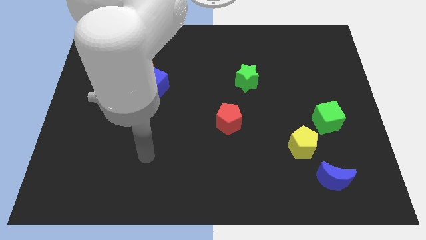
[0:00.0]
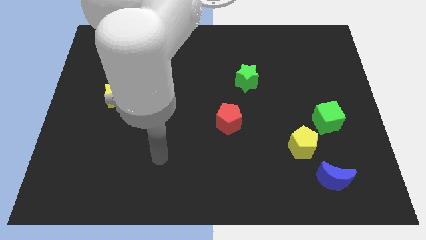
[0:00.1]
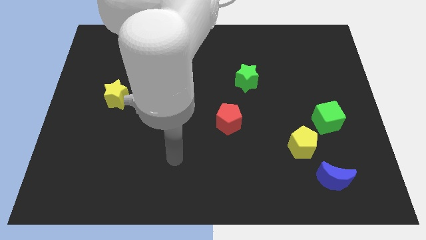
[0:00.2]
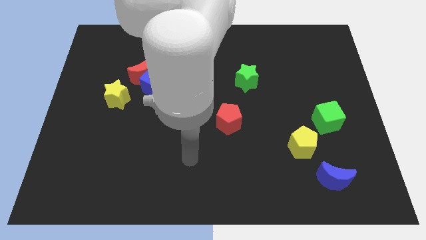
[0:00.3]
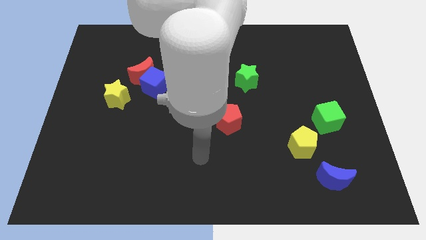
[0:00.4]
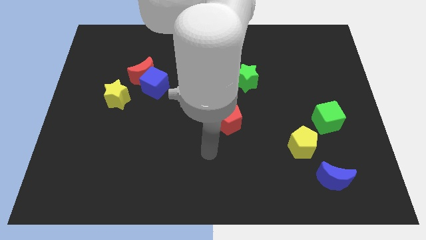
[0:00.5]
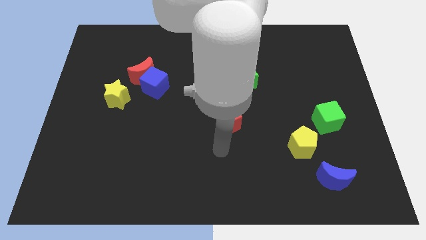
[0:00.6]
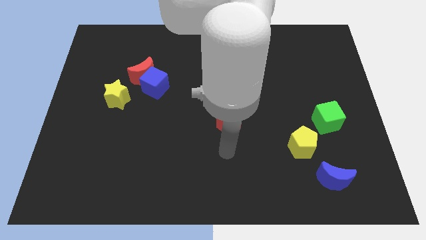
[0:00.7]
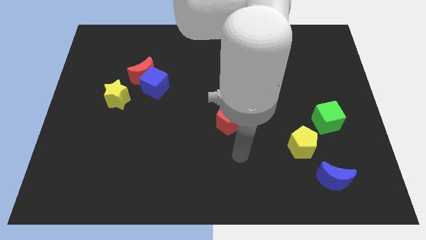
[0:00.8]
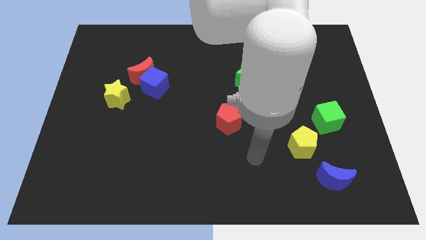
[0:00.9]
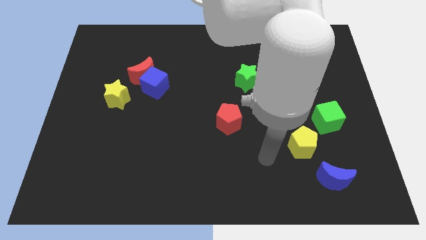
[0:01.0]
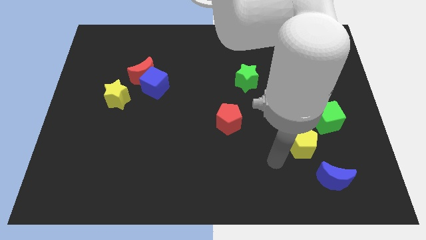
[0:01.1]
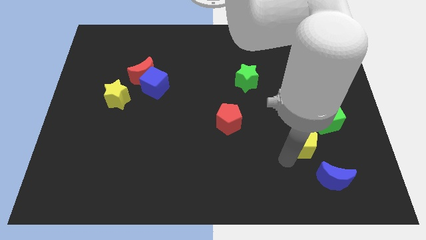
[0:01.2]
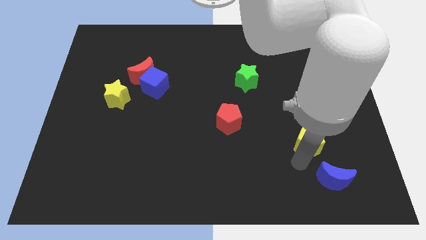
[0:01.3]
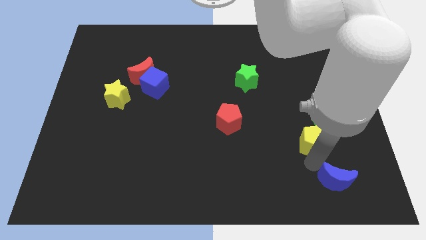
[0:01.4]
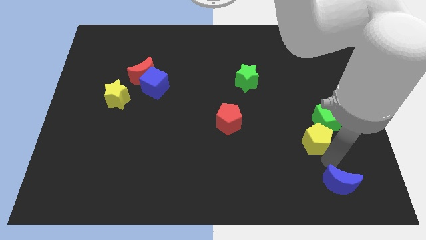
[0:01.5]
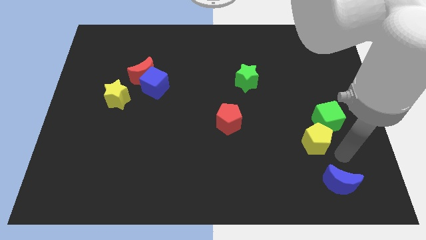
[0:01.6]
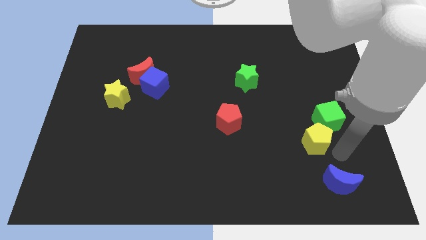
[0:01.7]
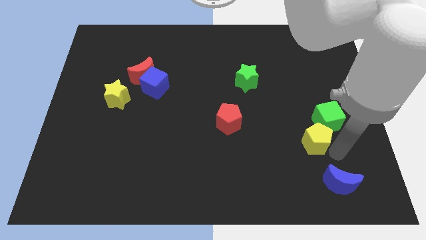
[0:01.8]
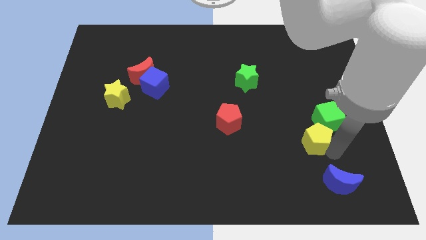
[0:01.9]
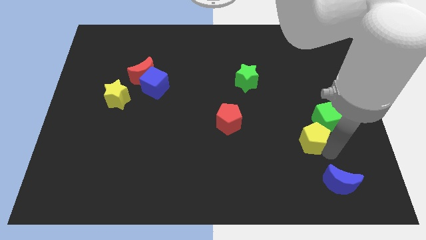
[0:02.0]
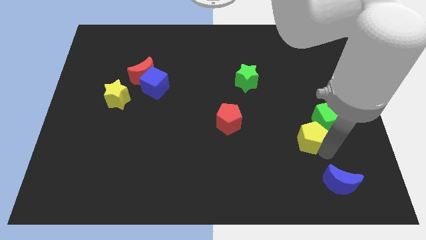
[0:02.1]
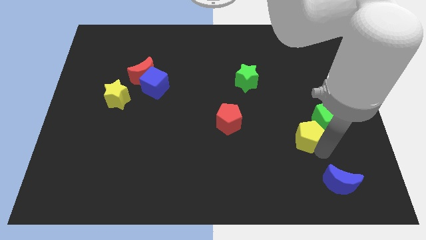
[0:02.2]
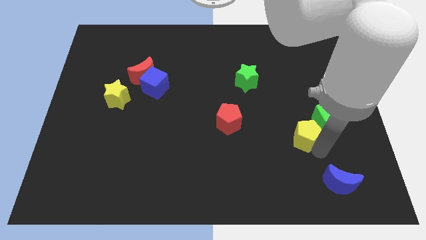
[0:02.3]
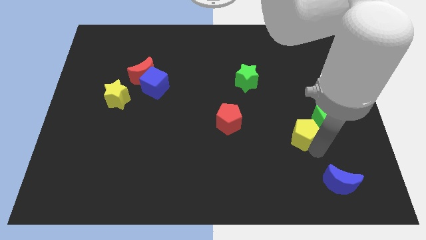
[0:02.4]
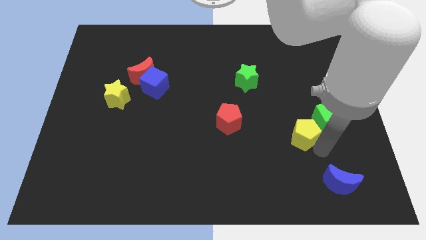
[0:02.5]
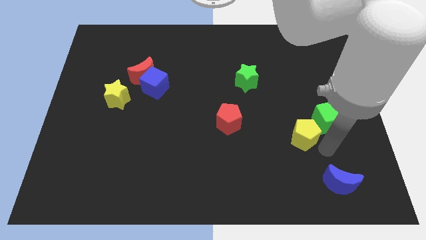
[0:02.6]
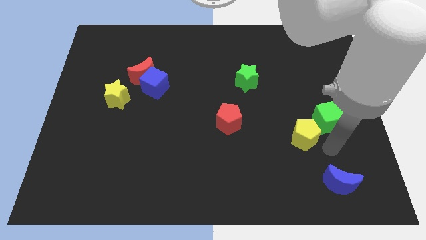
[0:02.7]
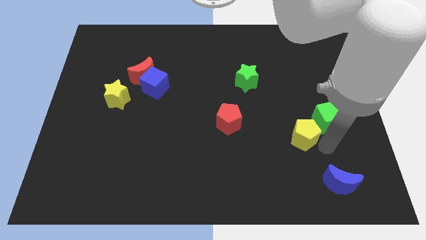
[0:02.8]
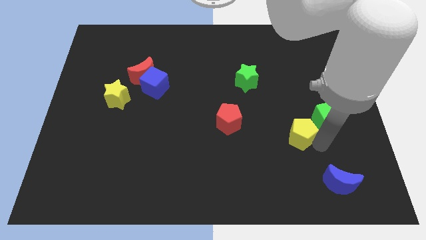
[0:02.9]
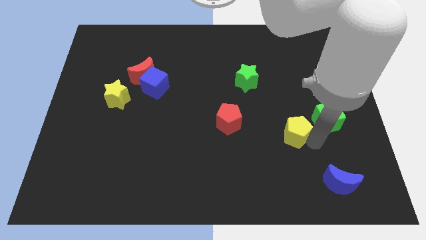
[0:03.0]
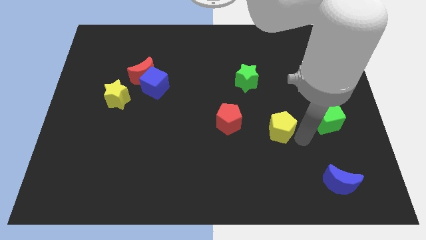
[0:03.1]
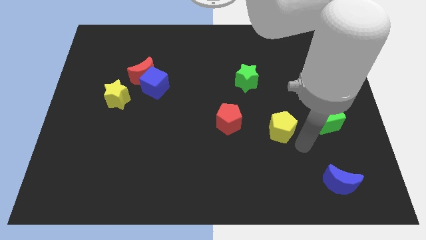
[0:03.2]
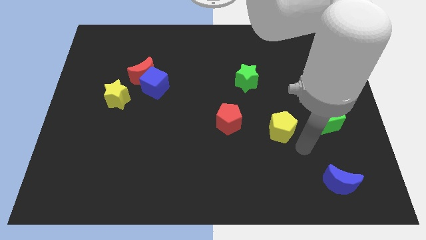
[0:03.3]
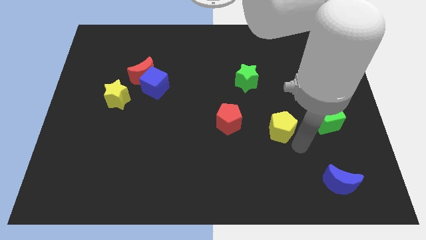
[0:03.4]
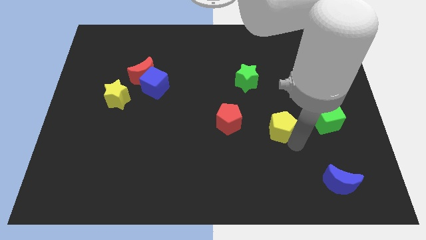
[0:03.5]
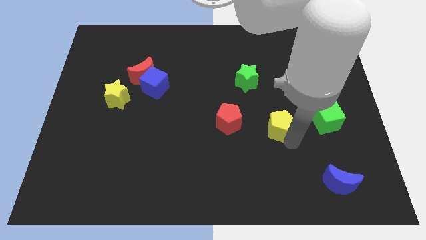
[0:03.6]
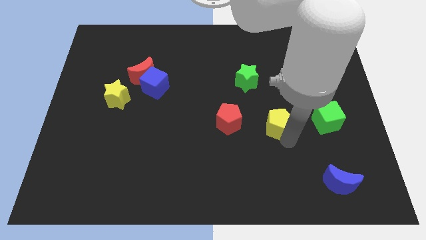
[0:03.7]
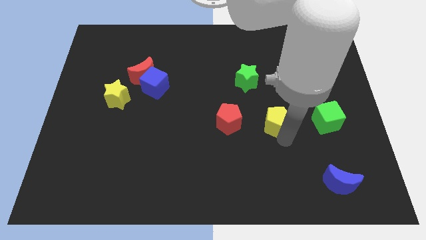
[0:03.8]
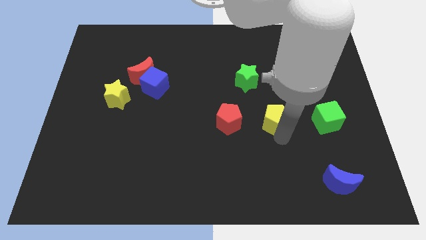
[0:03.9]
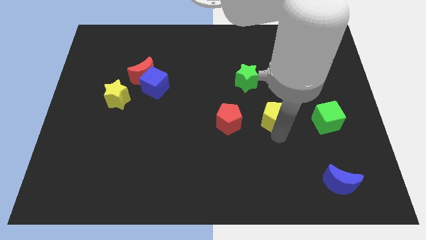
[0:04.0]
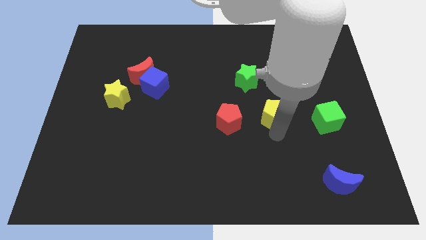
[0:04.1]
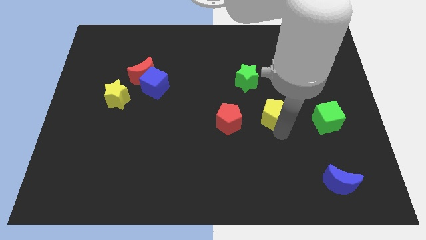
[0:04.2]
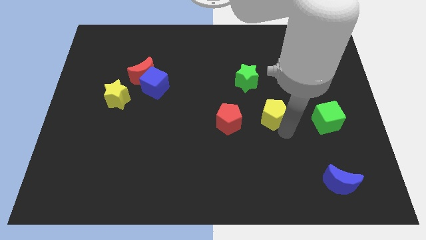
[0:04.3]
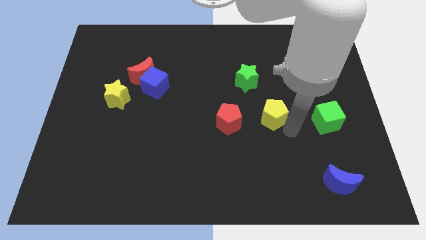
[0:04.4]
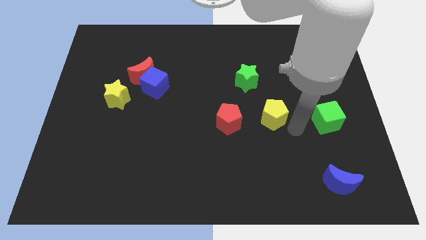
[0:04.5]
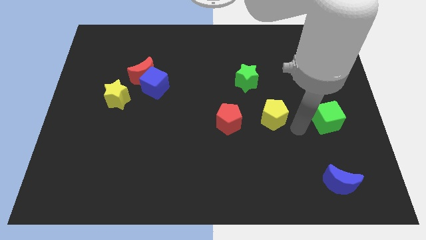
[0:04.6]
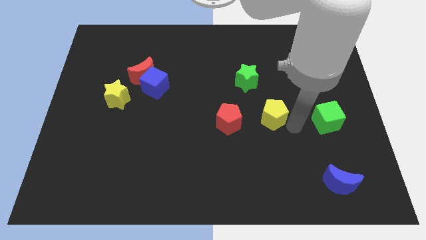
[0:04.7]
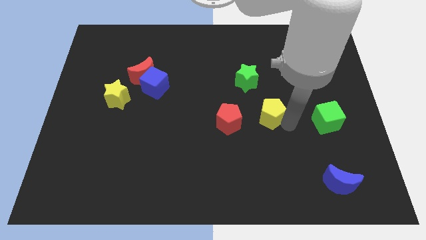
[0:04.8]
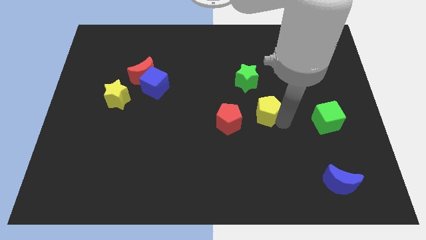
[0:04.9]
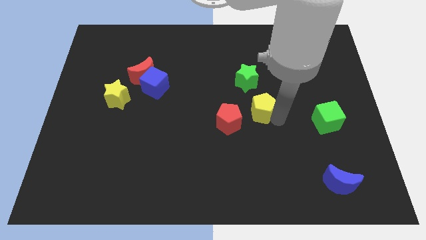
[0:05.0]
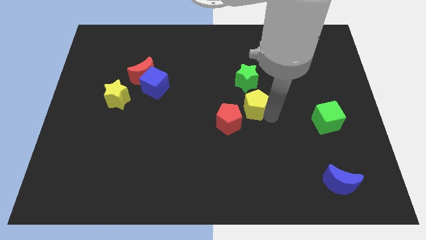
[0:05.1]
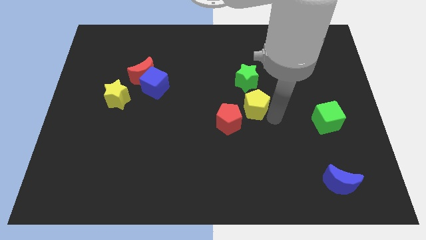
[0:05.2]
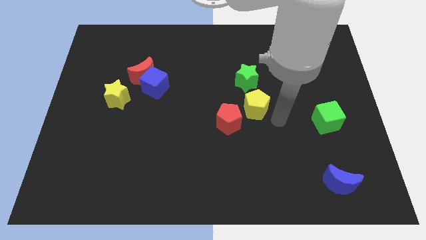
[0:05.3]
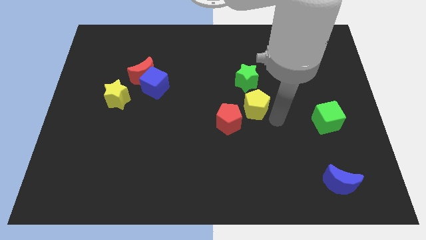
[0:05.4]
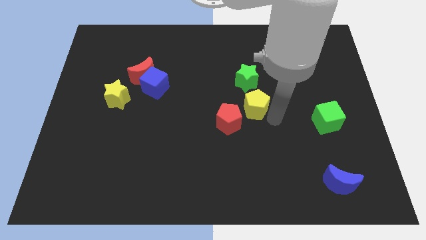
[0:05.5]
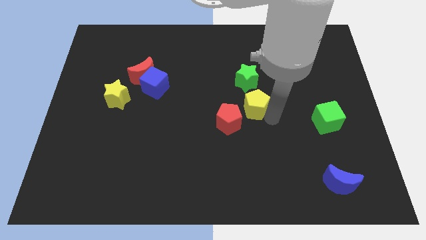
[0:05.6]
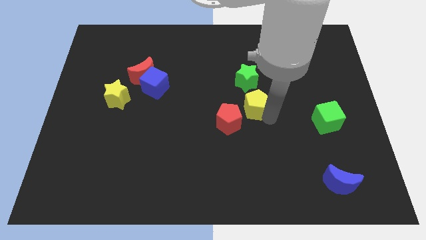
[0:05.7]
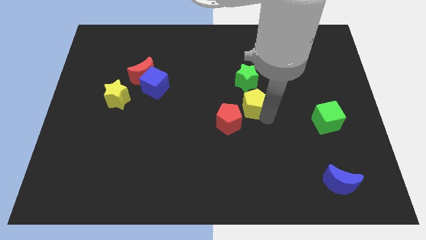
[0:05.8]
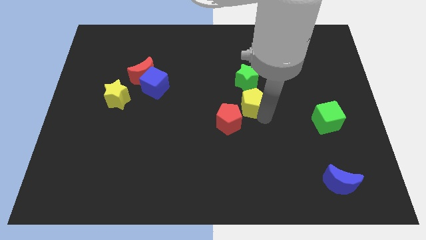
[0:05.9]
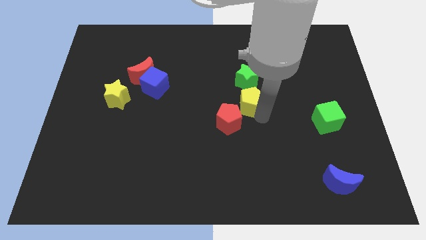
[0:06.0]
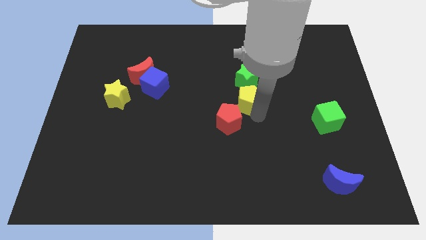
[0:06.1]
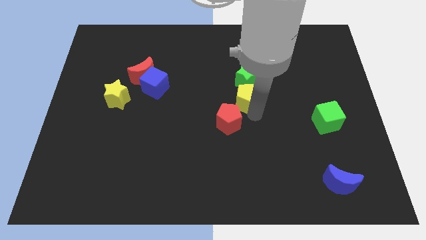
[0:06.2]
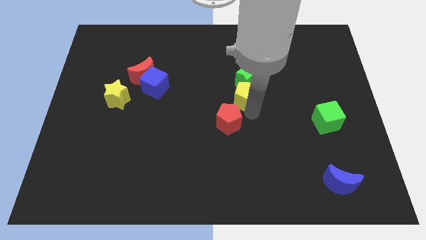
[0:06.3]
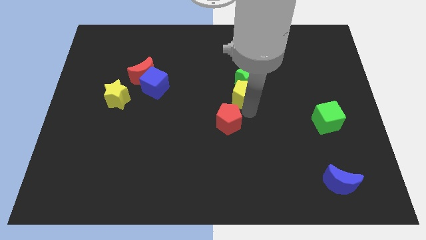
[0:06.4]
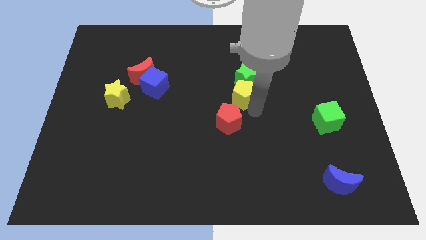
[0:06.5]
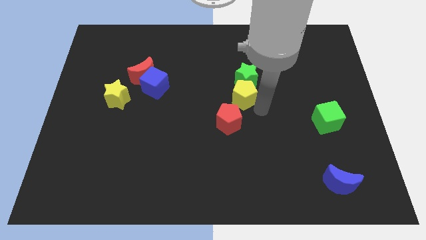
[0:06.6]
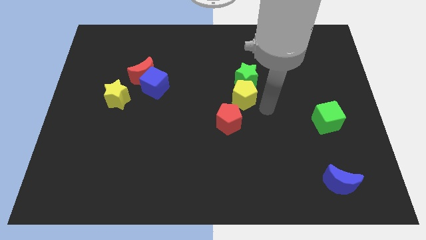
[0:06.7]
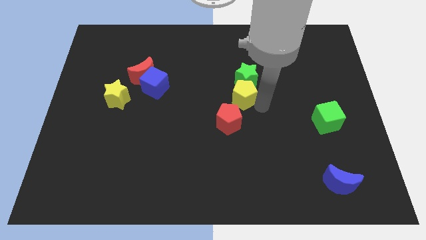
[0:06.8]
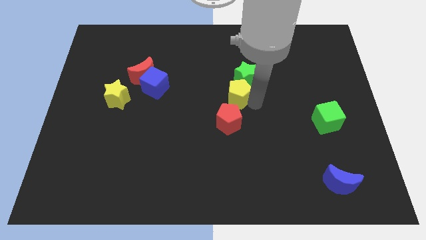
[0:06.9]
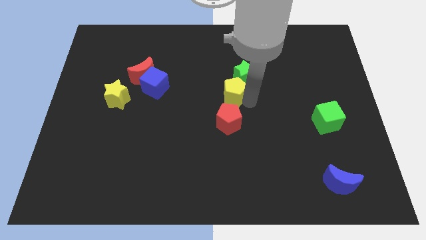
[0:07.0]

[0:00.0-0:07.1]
push the yellow pentagon up and to the left diagonally

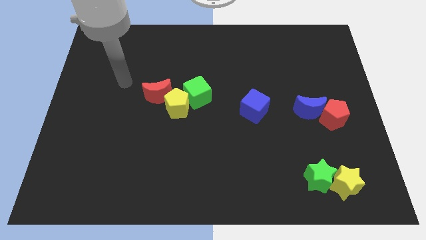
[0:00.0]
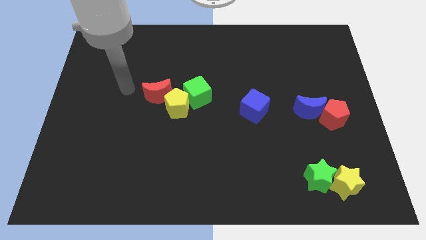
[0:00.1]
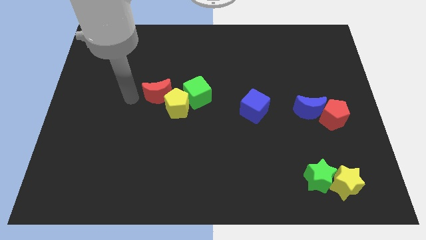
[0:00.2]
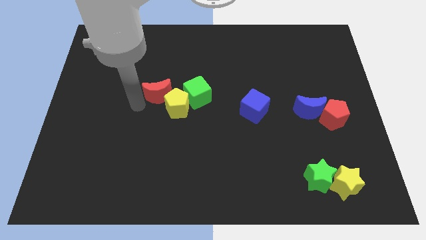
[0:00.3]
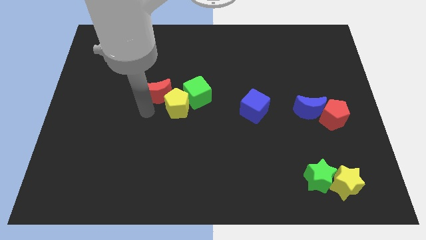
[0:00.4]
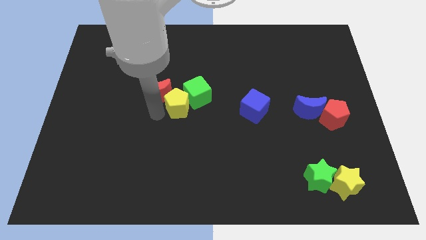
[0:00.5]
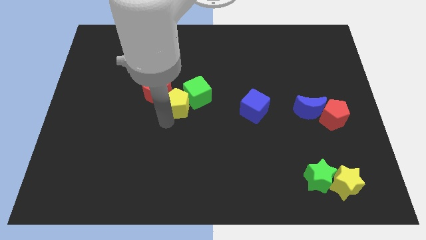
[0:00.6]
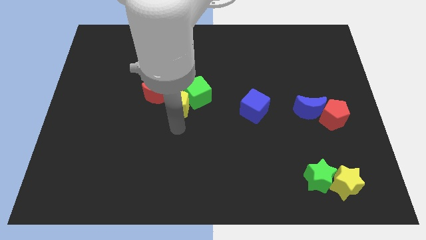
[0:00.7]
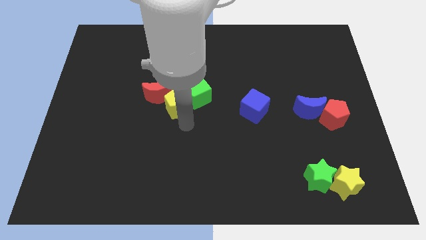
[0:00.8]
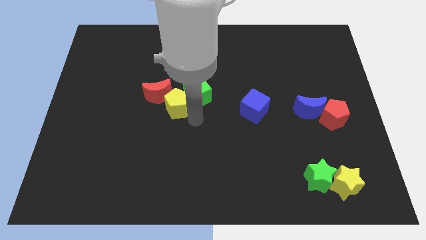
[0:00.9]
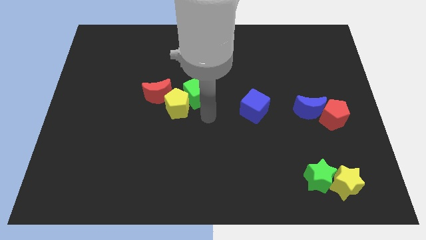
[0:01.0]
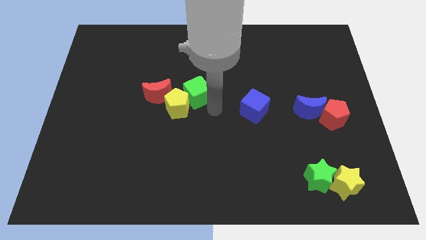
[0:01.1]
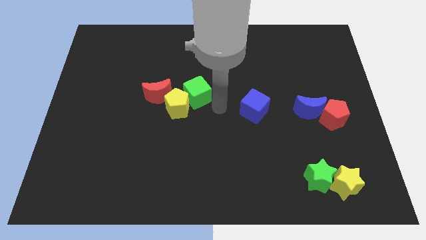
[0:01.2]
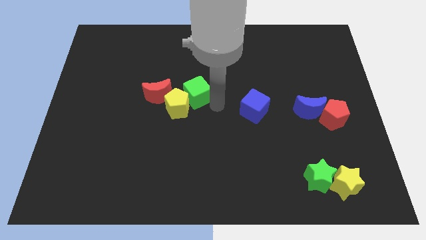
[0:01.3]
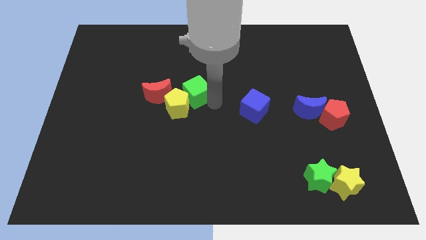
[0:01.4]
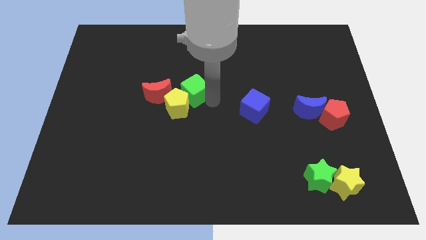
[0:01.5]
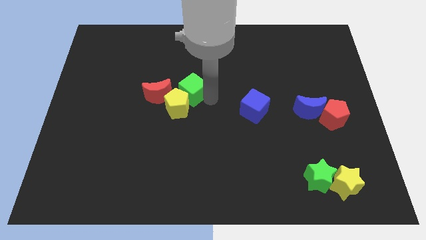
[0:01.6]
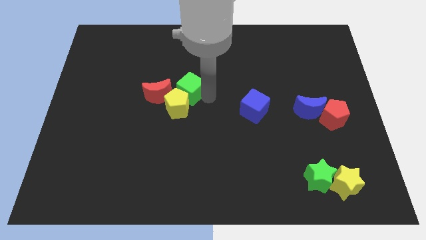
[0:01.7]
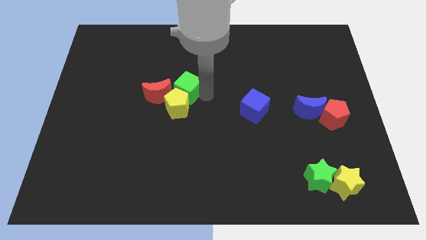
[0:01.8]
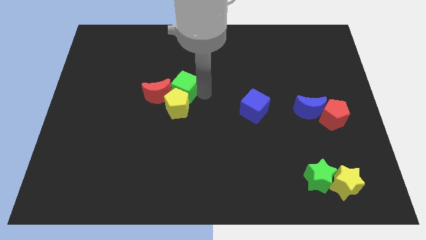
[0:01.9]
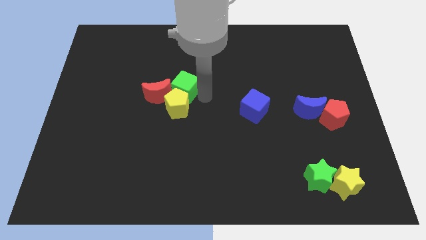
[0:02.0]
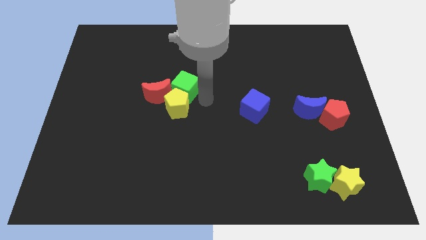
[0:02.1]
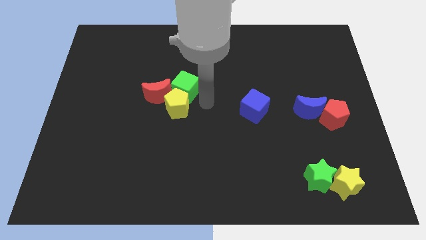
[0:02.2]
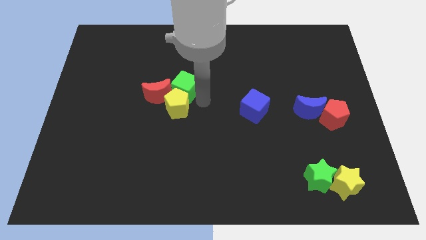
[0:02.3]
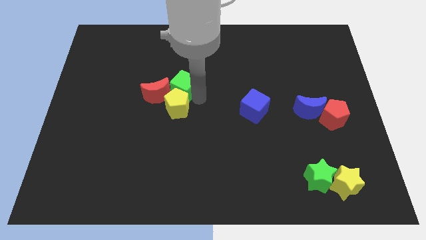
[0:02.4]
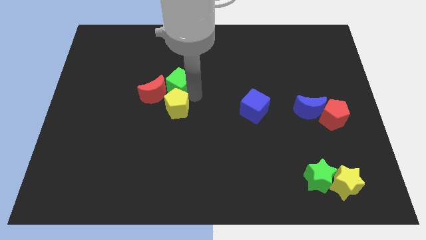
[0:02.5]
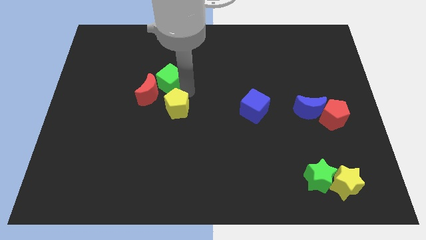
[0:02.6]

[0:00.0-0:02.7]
slightly move the green cube diagonally up and left
